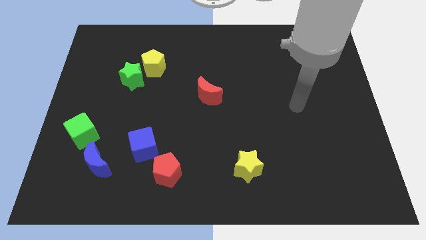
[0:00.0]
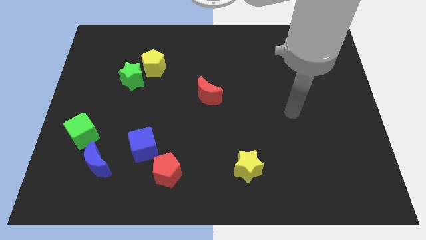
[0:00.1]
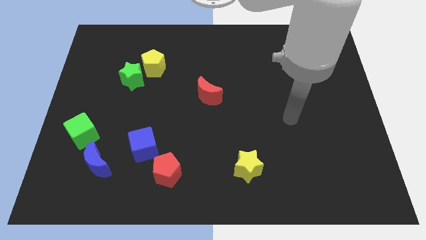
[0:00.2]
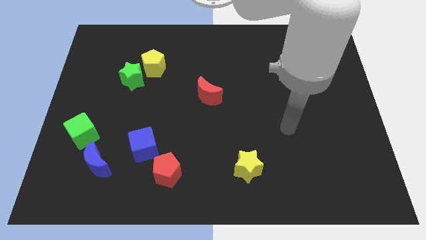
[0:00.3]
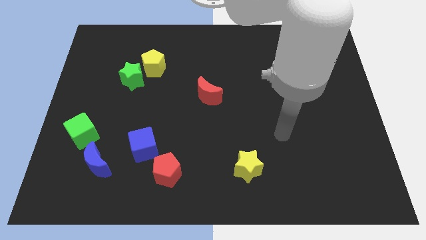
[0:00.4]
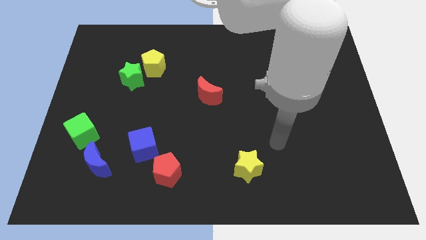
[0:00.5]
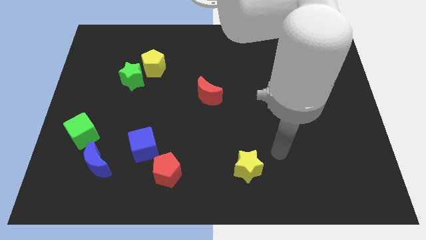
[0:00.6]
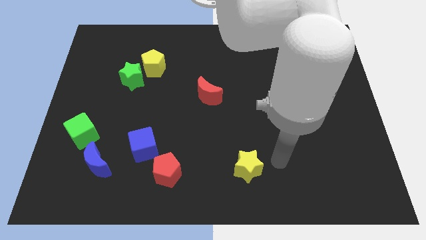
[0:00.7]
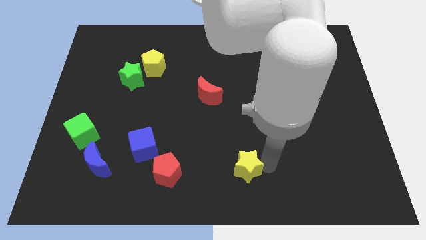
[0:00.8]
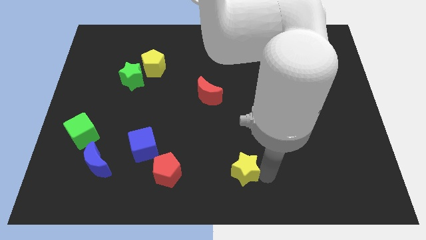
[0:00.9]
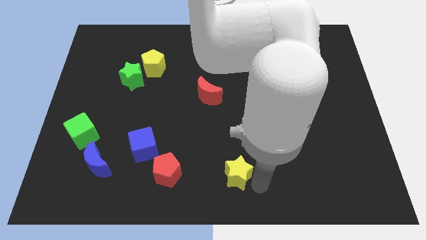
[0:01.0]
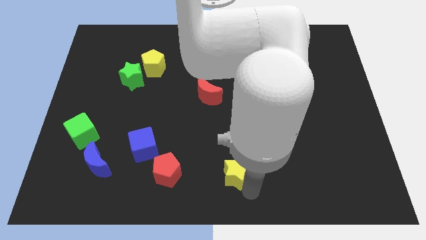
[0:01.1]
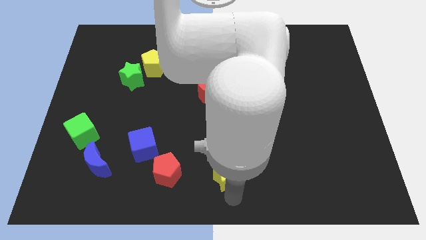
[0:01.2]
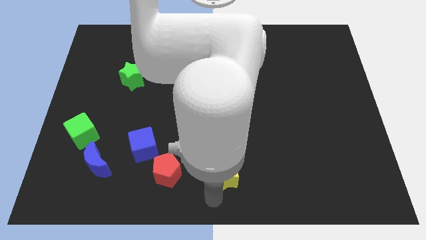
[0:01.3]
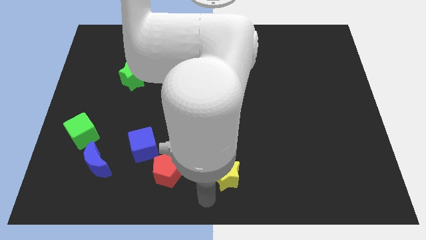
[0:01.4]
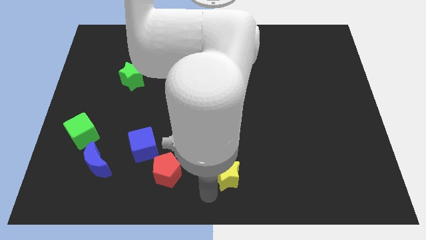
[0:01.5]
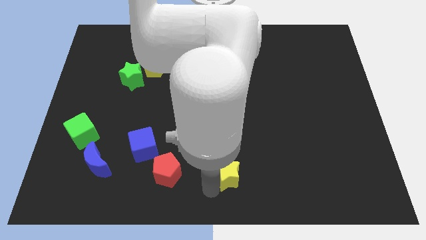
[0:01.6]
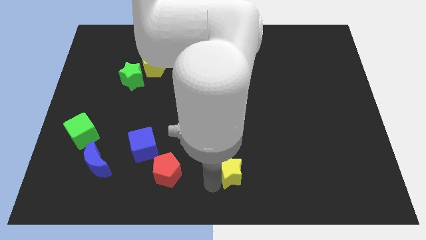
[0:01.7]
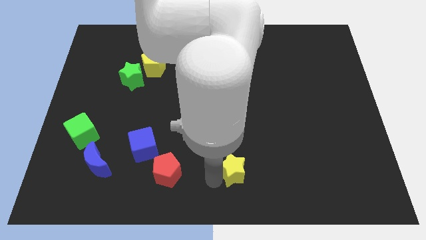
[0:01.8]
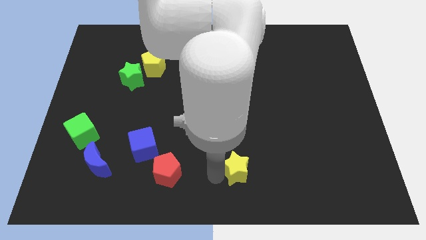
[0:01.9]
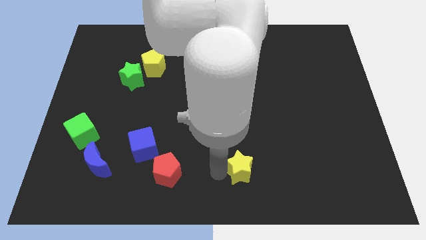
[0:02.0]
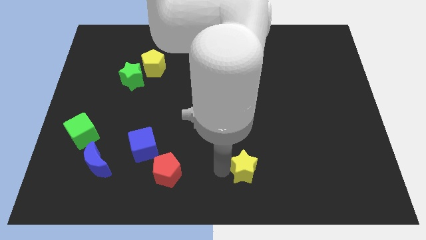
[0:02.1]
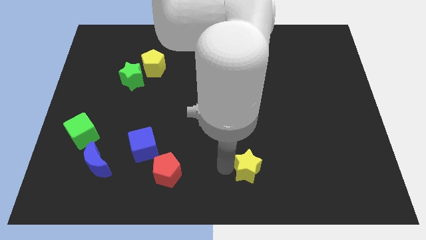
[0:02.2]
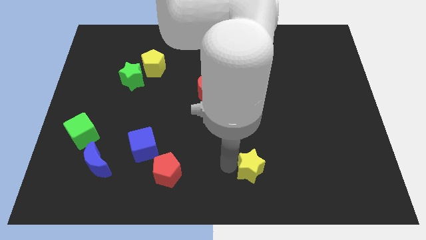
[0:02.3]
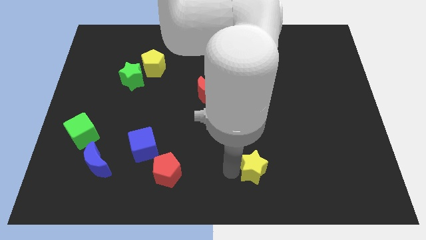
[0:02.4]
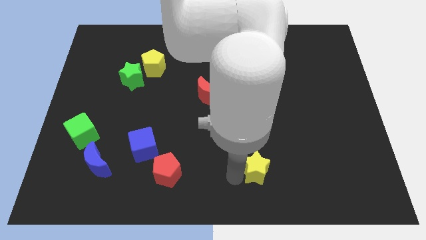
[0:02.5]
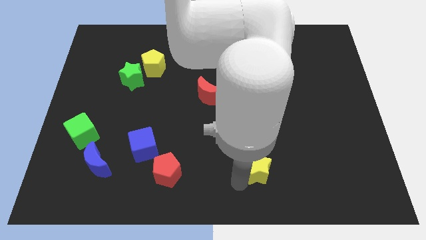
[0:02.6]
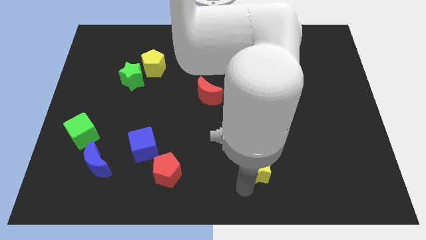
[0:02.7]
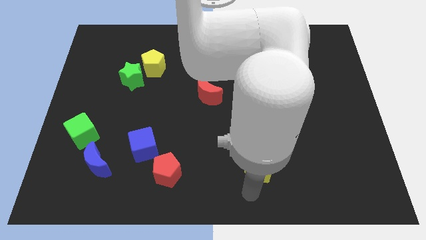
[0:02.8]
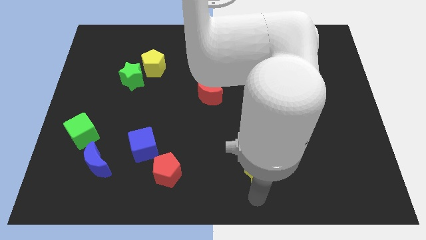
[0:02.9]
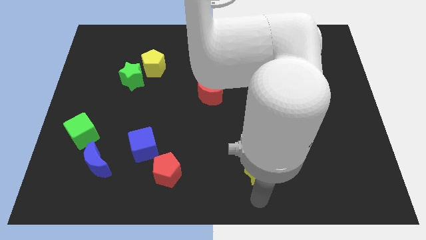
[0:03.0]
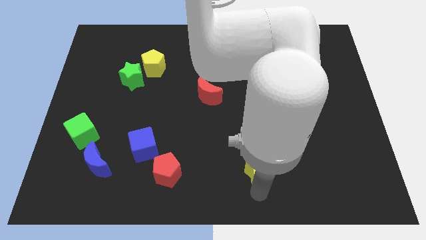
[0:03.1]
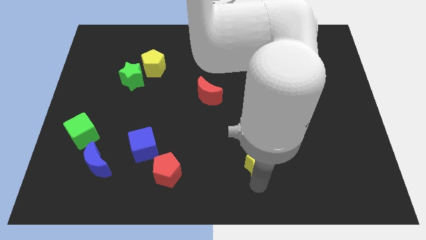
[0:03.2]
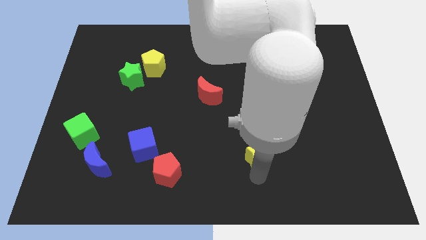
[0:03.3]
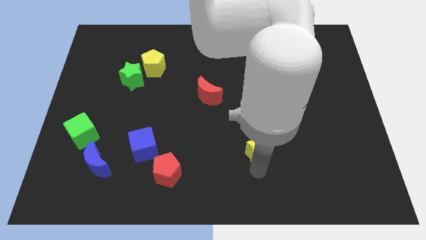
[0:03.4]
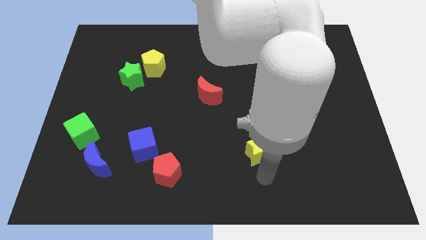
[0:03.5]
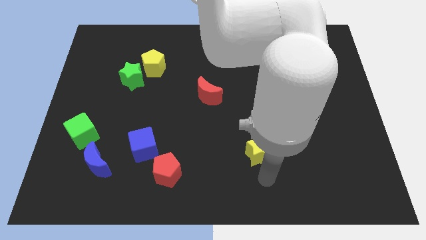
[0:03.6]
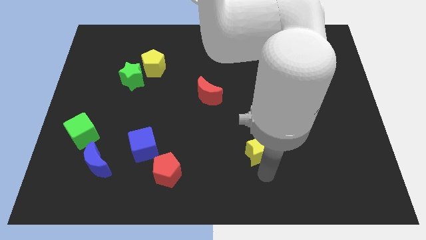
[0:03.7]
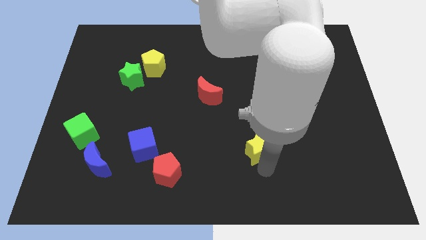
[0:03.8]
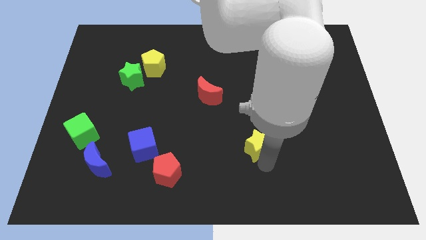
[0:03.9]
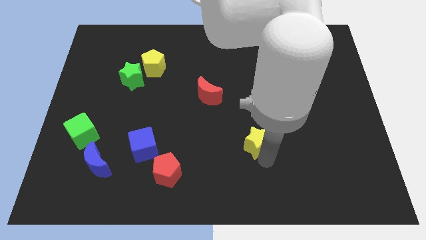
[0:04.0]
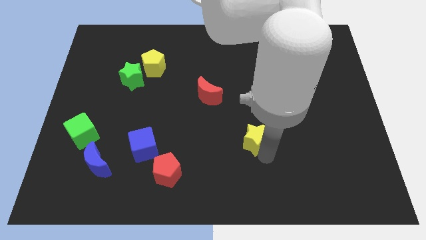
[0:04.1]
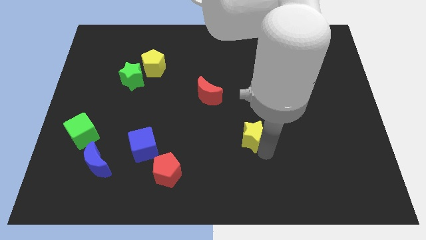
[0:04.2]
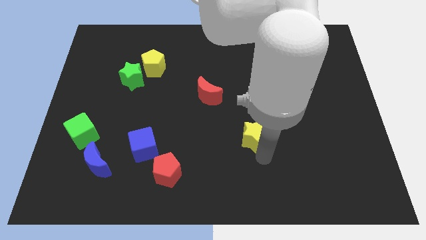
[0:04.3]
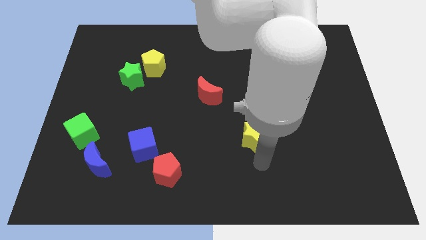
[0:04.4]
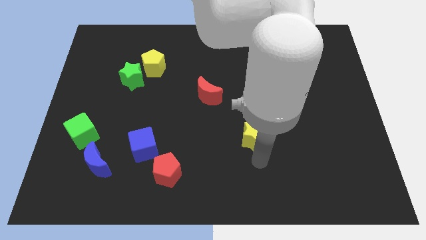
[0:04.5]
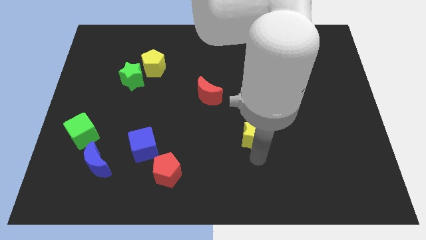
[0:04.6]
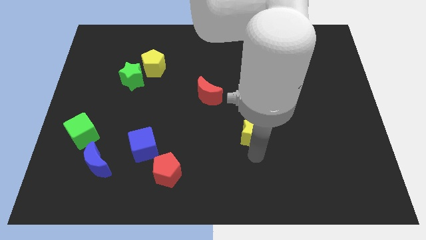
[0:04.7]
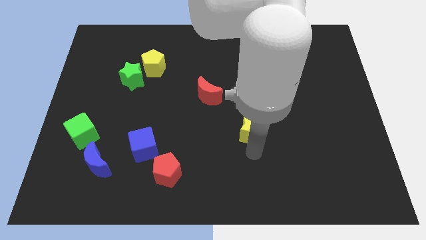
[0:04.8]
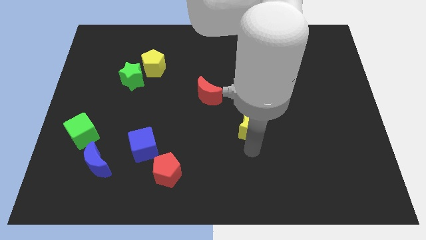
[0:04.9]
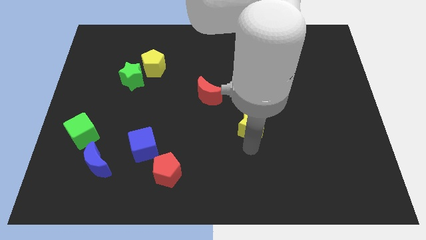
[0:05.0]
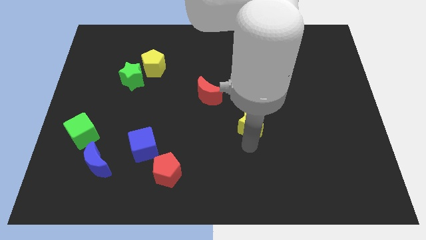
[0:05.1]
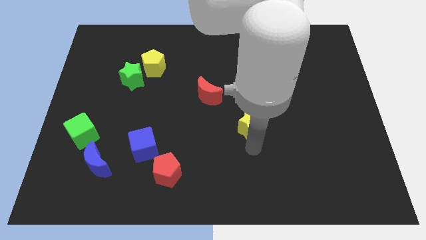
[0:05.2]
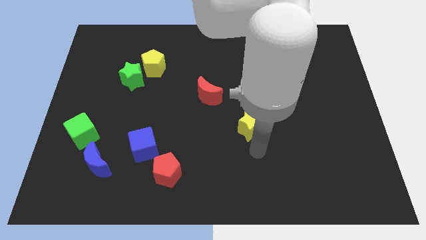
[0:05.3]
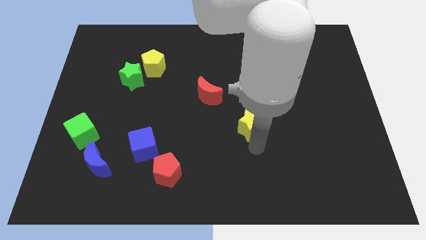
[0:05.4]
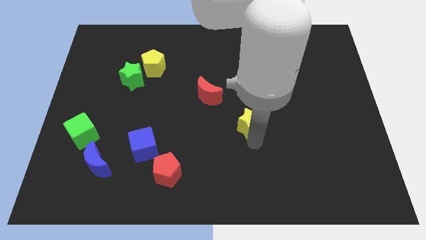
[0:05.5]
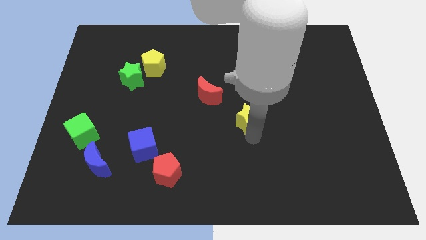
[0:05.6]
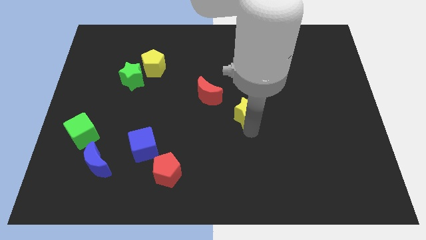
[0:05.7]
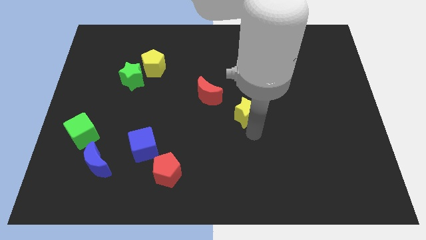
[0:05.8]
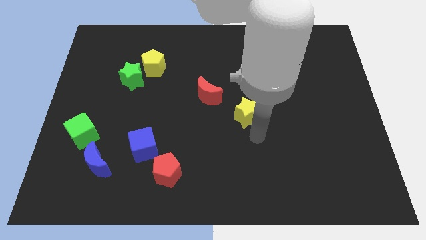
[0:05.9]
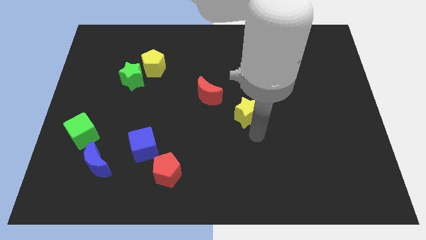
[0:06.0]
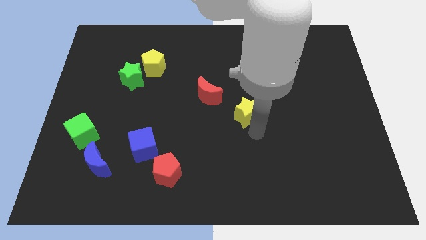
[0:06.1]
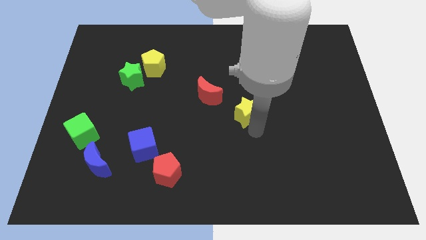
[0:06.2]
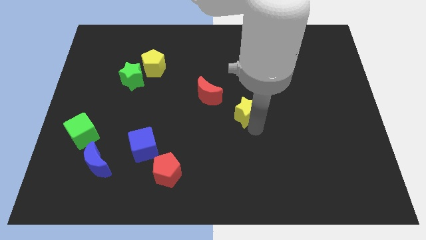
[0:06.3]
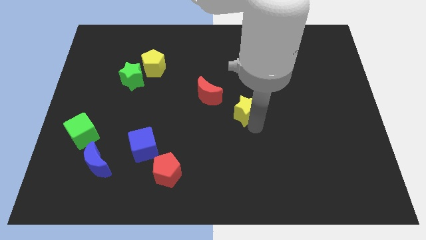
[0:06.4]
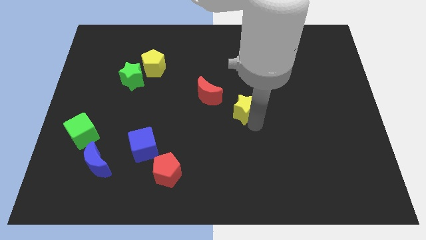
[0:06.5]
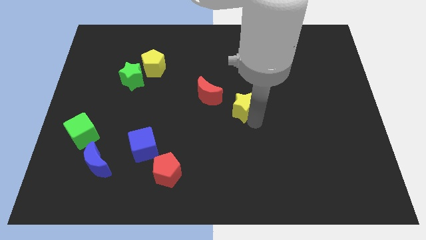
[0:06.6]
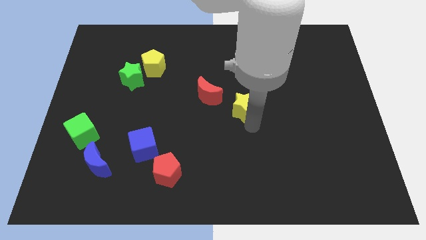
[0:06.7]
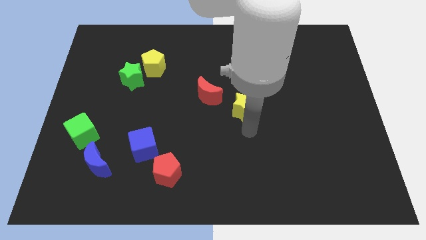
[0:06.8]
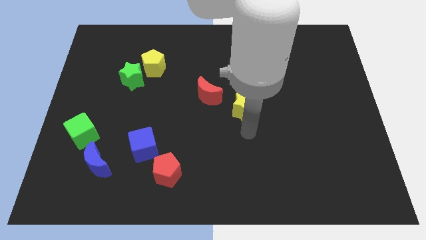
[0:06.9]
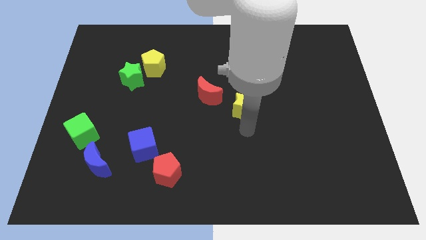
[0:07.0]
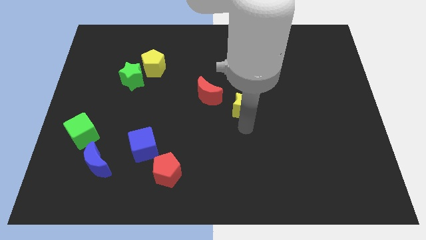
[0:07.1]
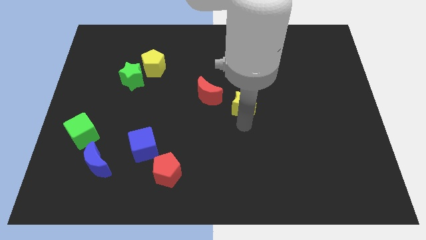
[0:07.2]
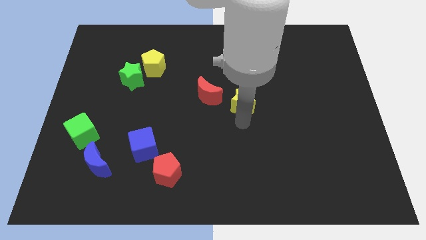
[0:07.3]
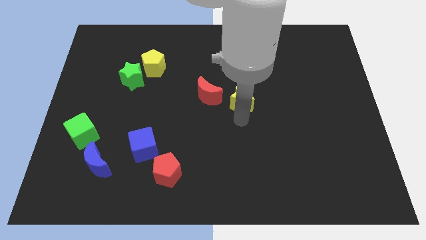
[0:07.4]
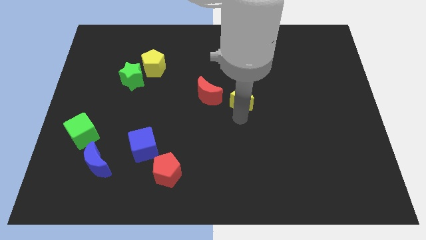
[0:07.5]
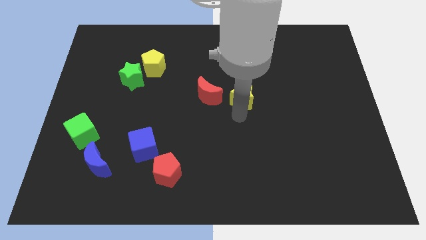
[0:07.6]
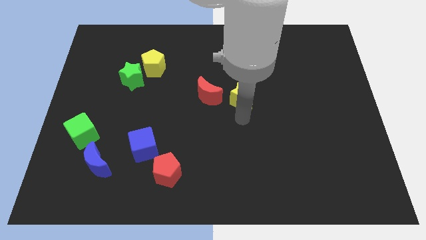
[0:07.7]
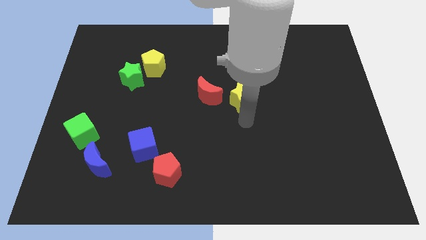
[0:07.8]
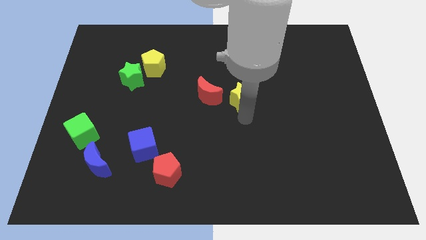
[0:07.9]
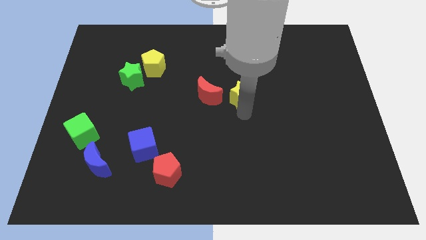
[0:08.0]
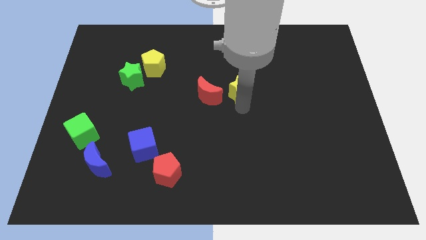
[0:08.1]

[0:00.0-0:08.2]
move the yellow star upwards

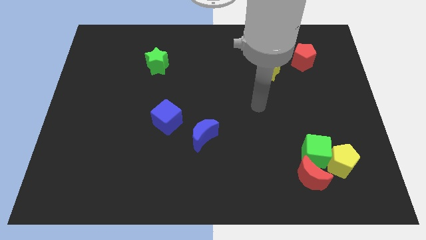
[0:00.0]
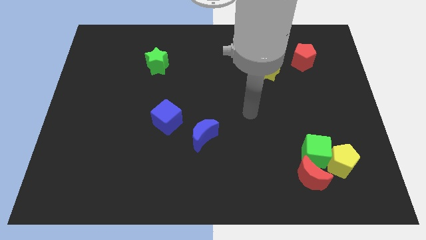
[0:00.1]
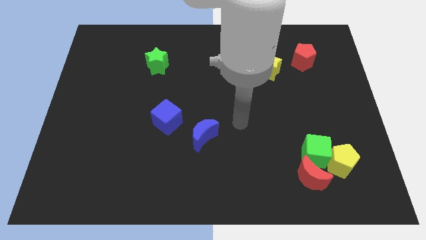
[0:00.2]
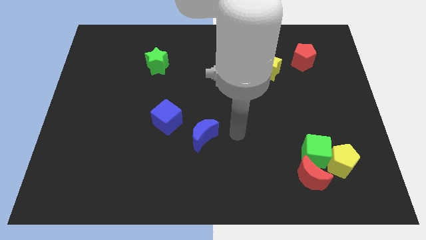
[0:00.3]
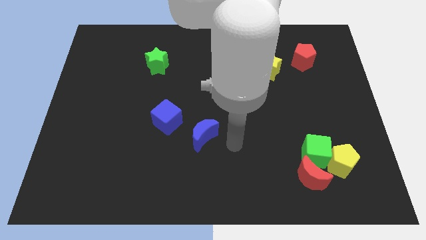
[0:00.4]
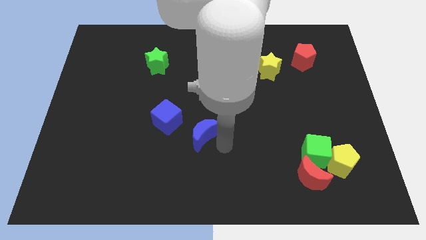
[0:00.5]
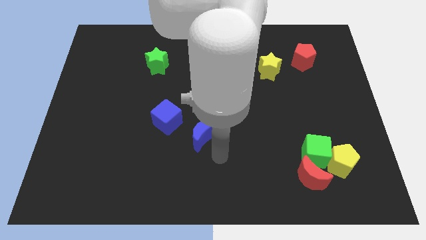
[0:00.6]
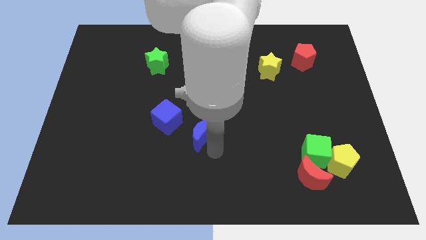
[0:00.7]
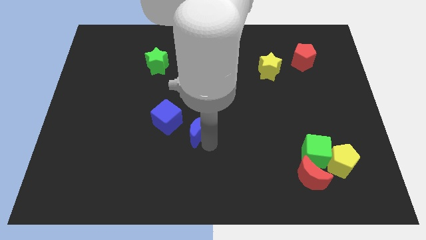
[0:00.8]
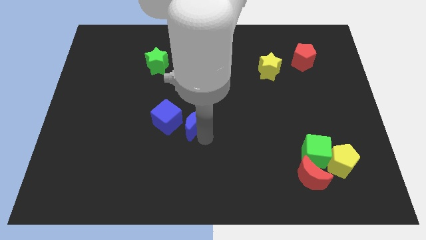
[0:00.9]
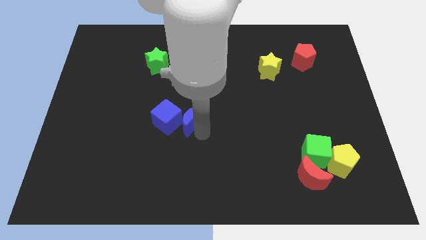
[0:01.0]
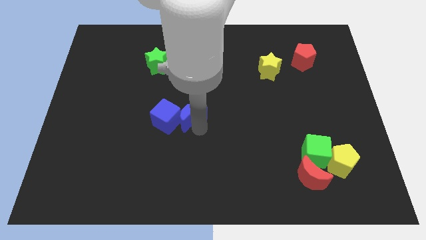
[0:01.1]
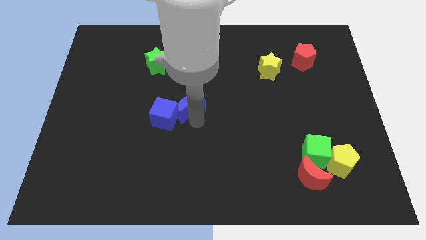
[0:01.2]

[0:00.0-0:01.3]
move the blue moon a little bit up and to the left diagonally
